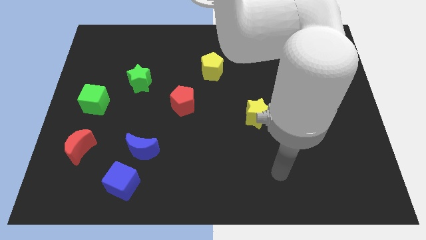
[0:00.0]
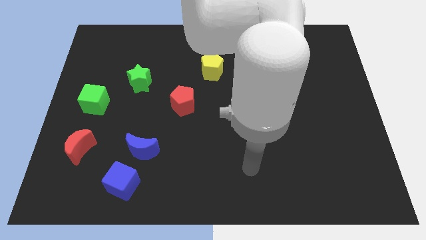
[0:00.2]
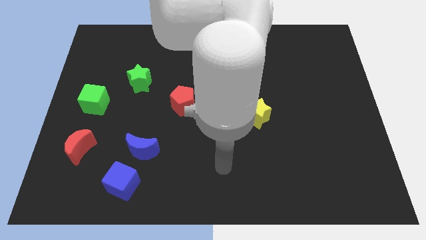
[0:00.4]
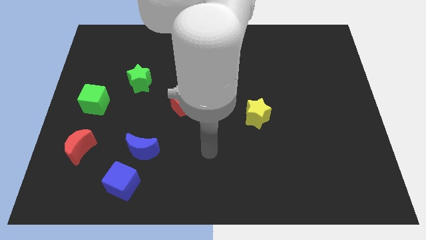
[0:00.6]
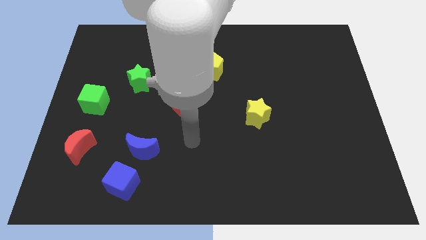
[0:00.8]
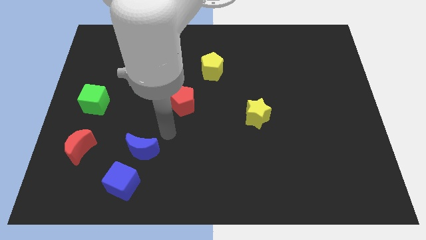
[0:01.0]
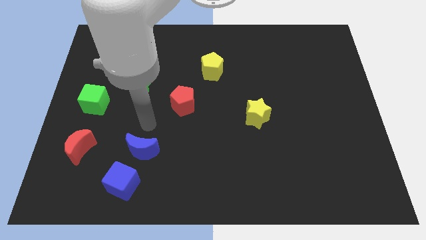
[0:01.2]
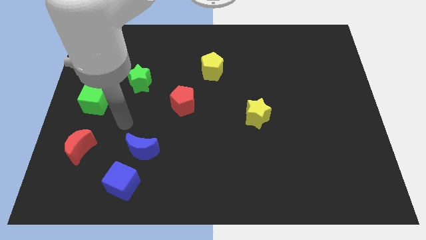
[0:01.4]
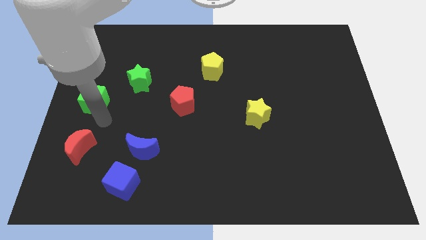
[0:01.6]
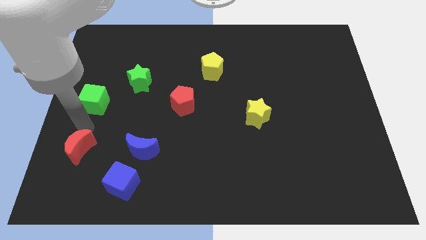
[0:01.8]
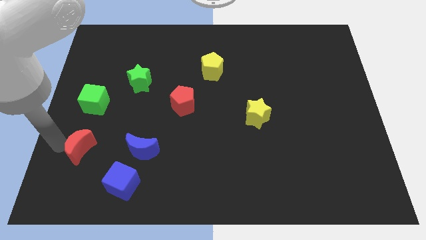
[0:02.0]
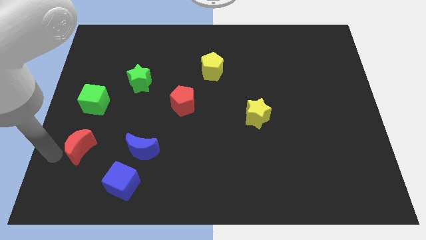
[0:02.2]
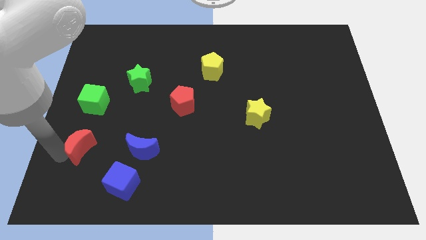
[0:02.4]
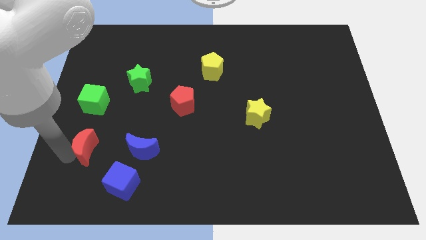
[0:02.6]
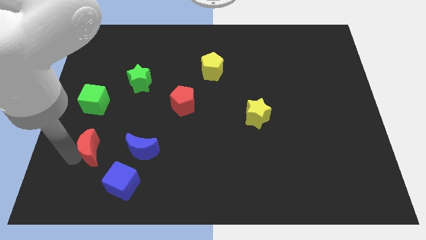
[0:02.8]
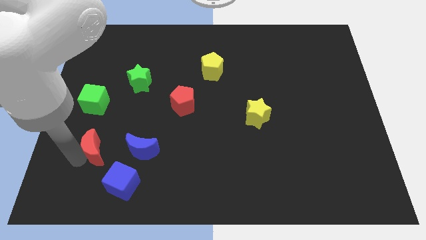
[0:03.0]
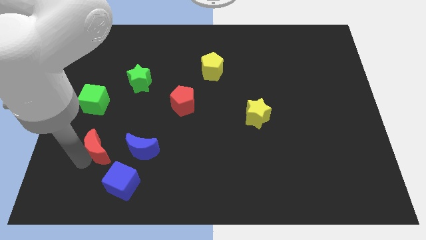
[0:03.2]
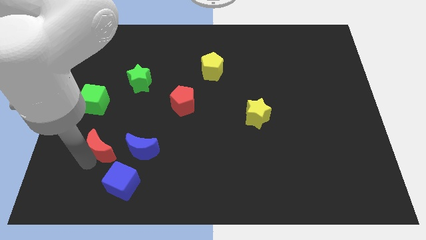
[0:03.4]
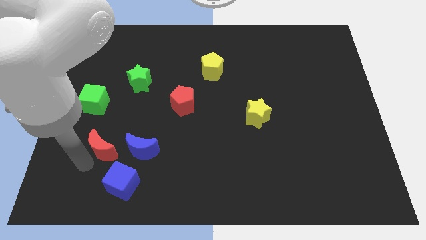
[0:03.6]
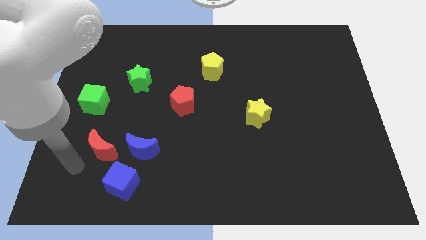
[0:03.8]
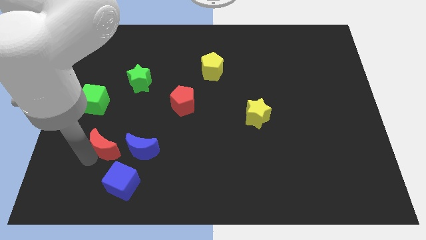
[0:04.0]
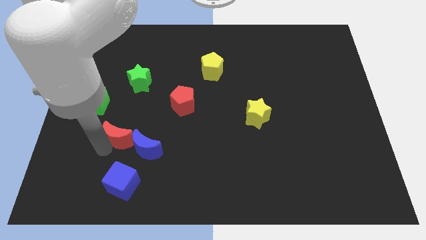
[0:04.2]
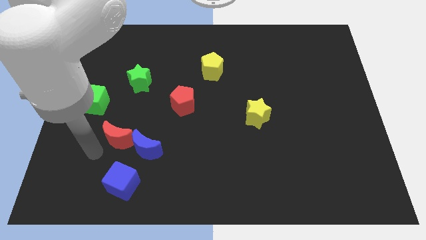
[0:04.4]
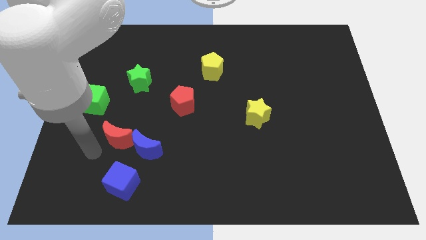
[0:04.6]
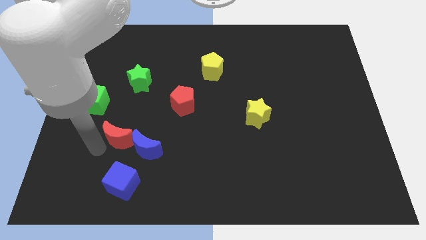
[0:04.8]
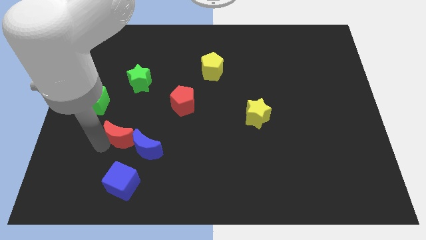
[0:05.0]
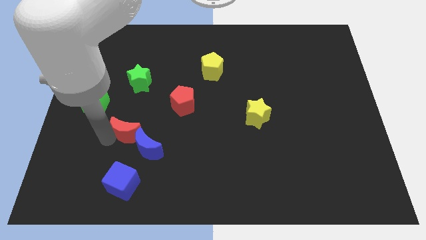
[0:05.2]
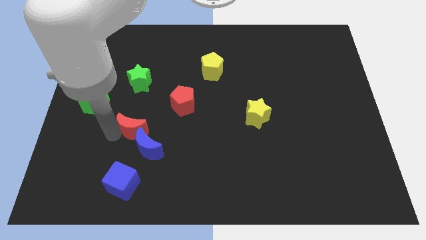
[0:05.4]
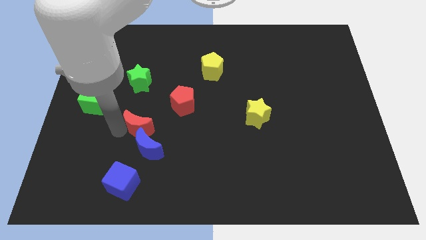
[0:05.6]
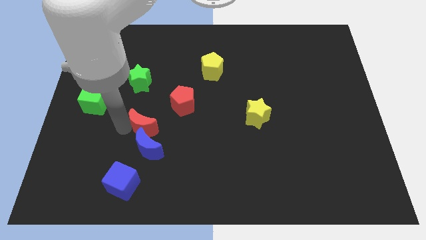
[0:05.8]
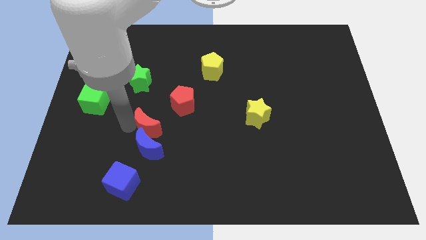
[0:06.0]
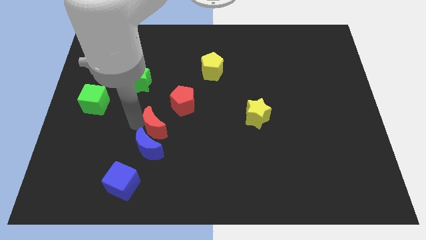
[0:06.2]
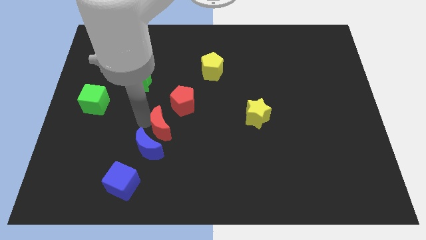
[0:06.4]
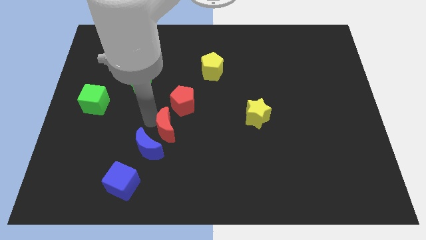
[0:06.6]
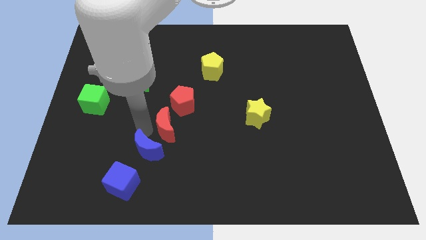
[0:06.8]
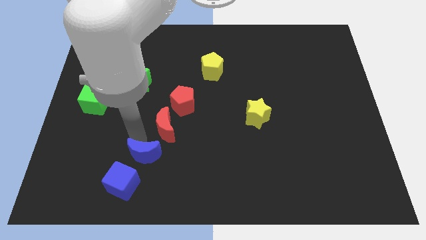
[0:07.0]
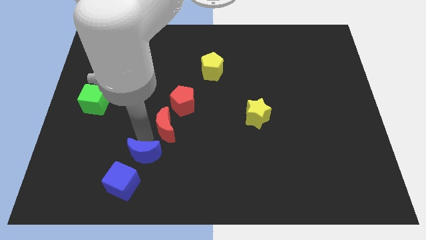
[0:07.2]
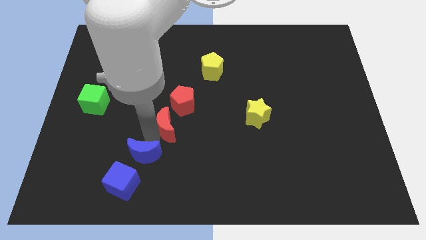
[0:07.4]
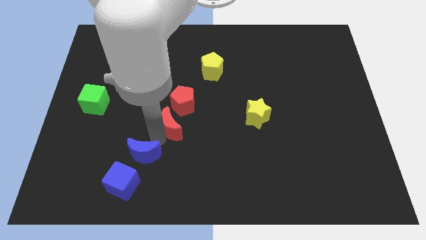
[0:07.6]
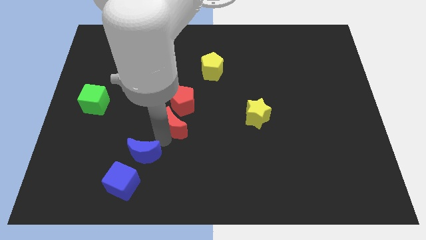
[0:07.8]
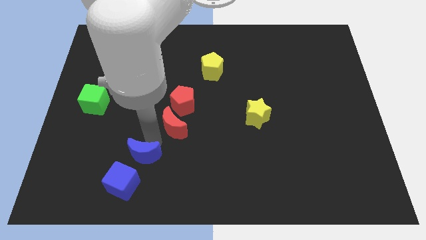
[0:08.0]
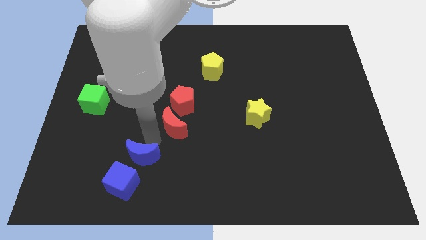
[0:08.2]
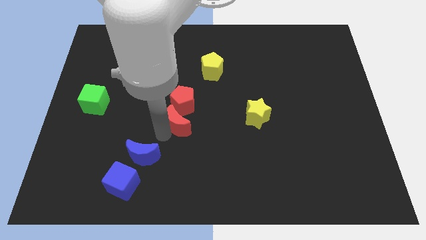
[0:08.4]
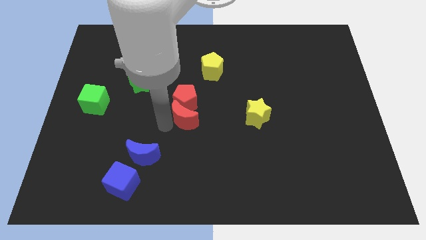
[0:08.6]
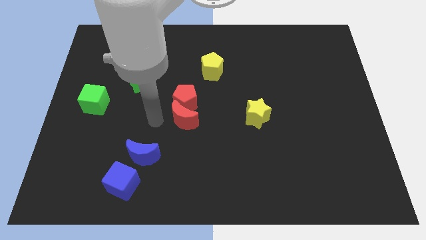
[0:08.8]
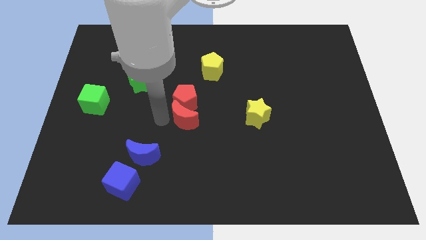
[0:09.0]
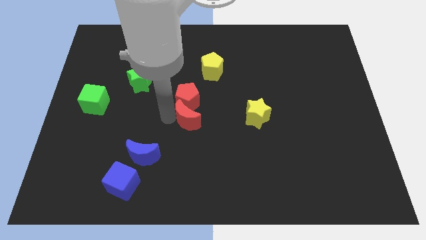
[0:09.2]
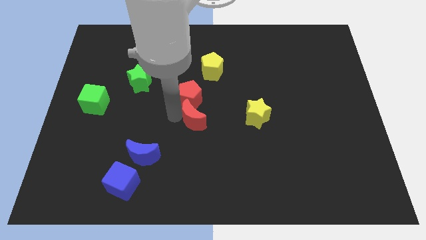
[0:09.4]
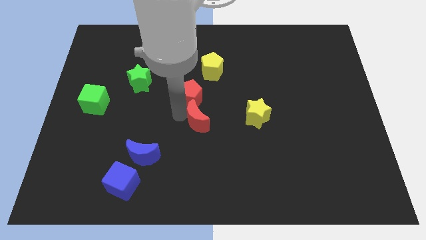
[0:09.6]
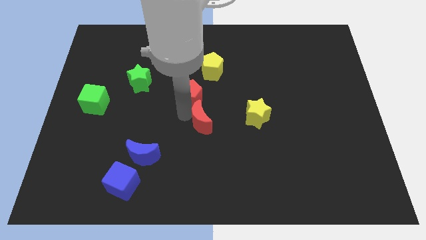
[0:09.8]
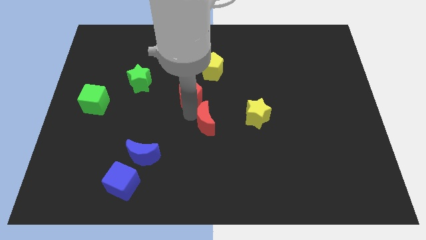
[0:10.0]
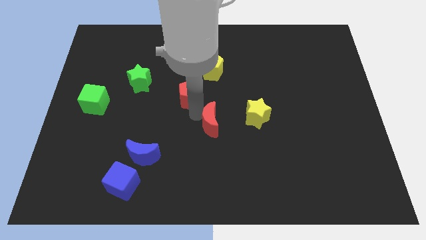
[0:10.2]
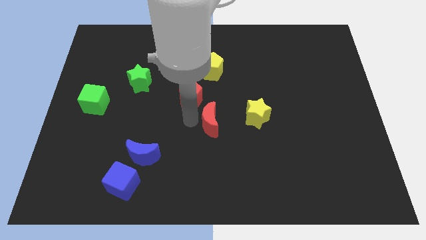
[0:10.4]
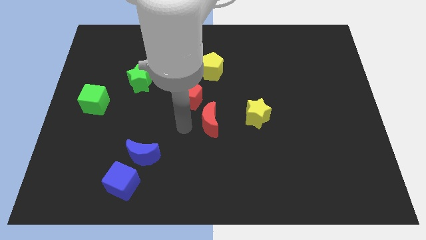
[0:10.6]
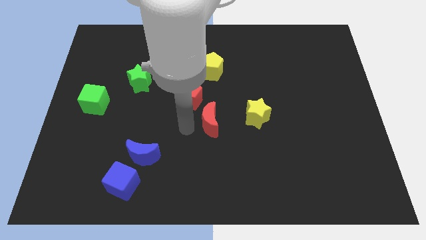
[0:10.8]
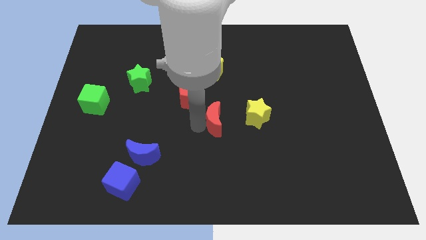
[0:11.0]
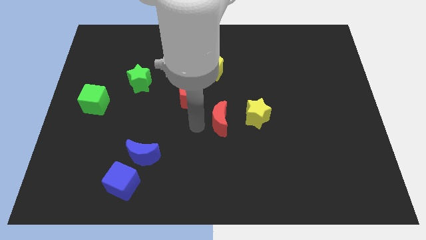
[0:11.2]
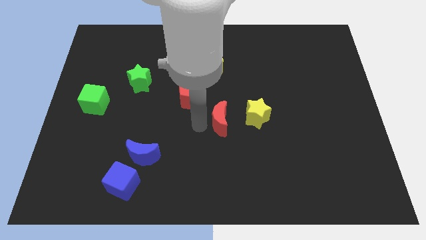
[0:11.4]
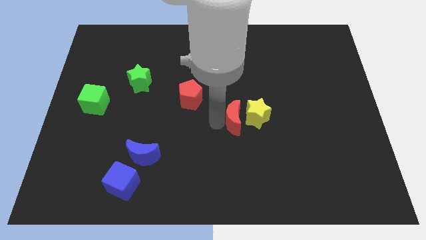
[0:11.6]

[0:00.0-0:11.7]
push the red moon to the yellow star

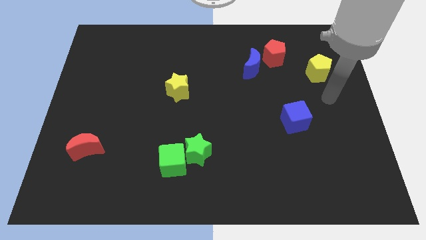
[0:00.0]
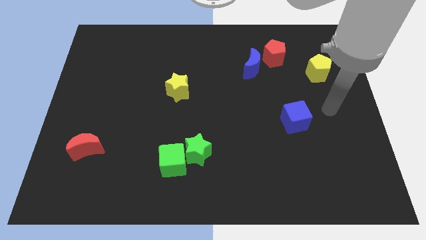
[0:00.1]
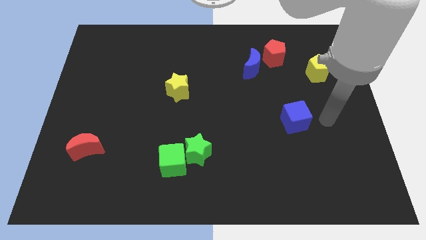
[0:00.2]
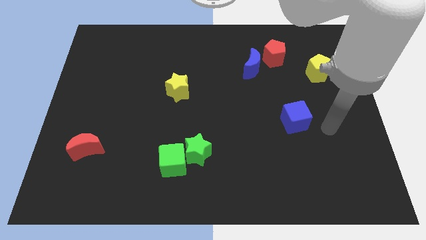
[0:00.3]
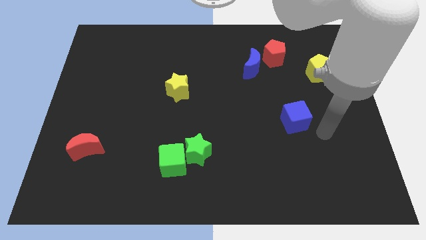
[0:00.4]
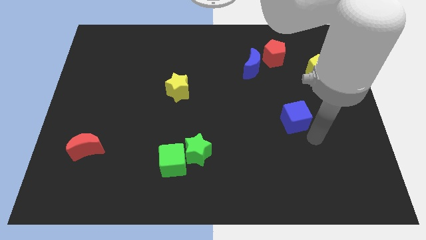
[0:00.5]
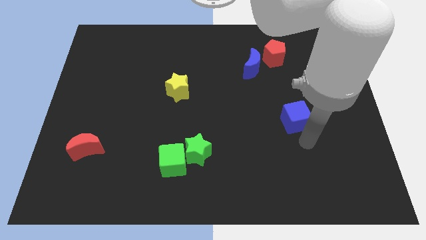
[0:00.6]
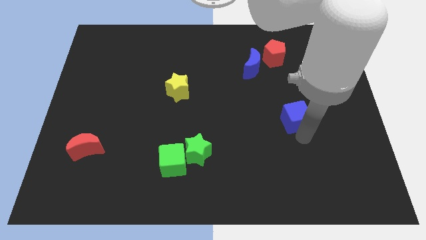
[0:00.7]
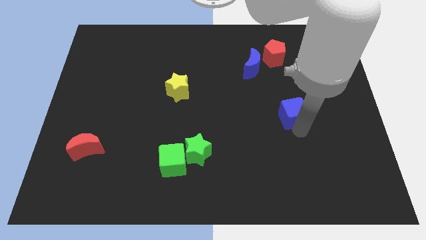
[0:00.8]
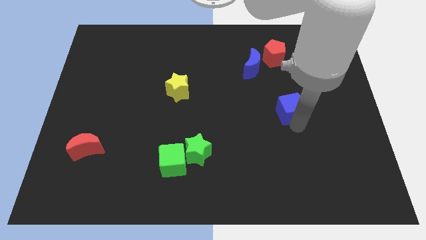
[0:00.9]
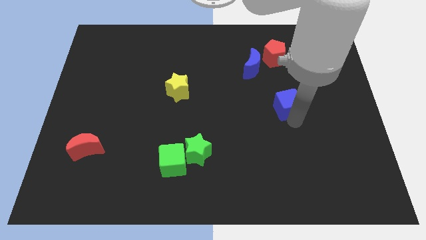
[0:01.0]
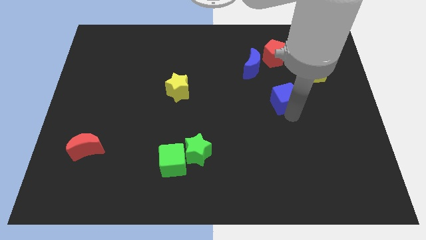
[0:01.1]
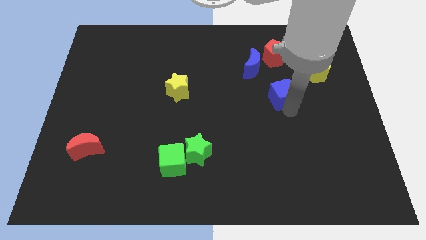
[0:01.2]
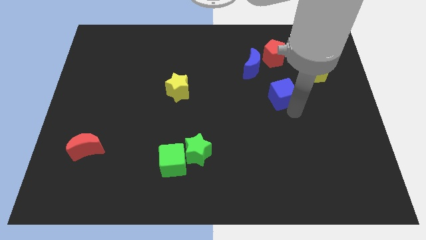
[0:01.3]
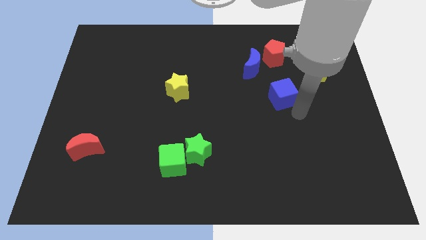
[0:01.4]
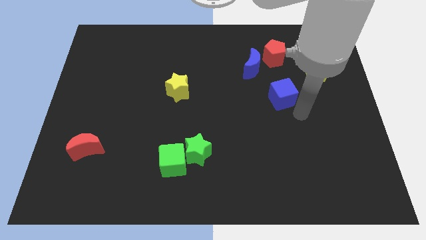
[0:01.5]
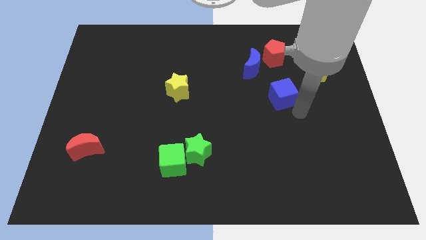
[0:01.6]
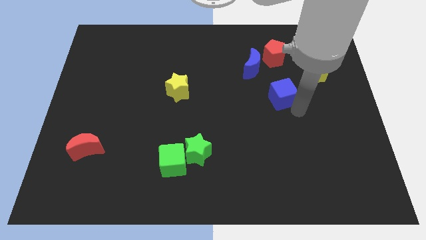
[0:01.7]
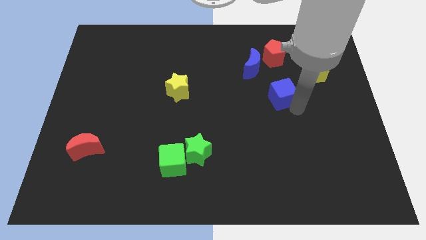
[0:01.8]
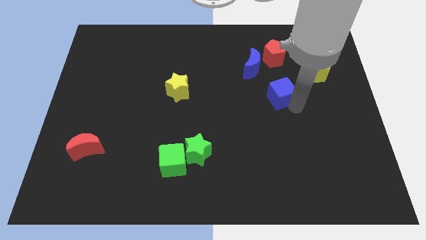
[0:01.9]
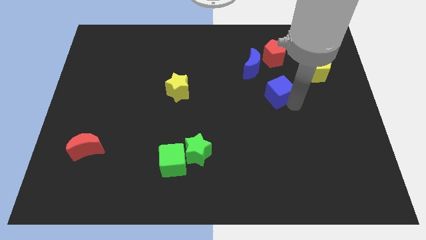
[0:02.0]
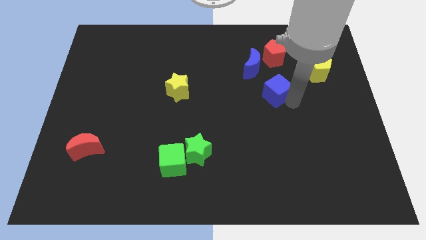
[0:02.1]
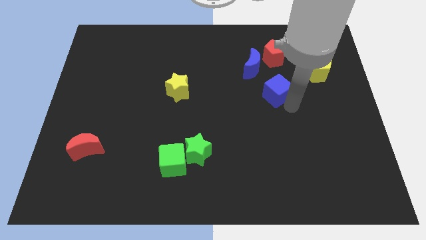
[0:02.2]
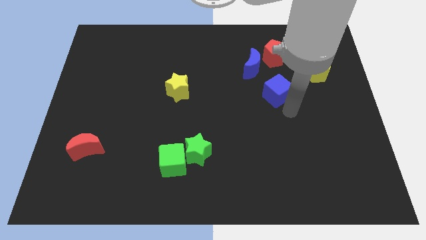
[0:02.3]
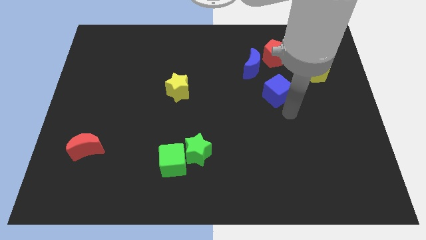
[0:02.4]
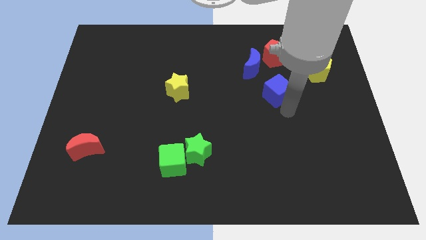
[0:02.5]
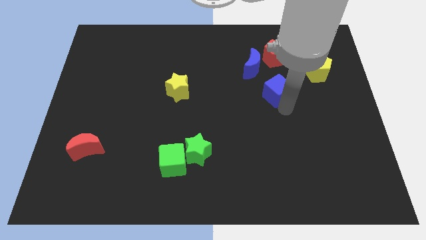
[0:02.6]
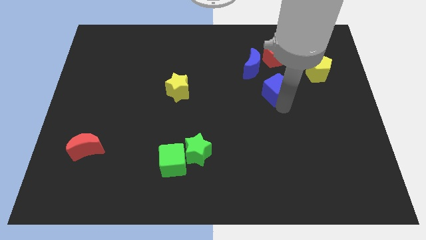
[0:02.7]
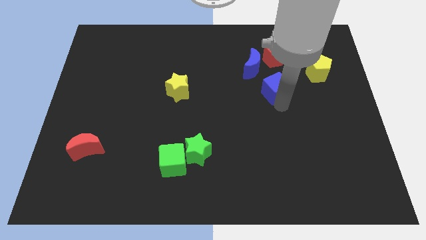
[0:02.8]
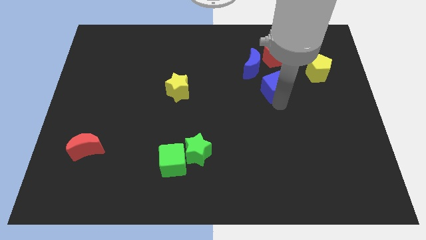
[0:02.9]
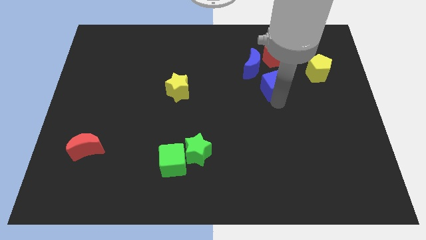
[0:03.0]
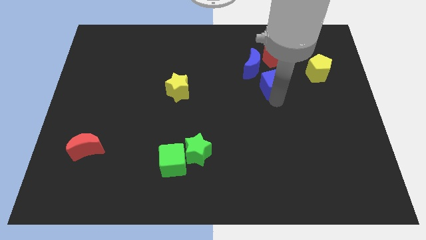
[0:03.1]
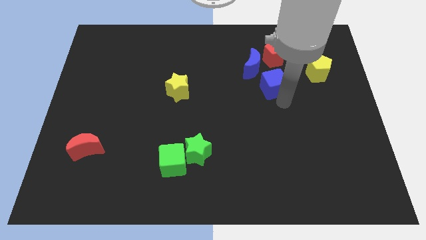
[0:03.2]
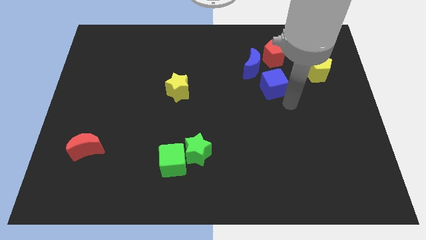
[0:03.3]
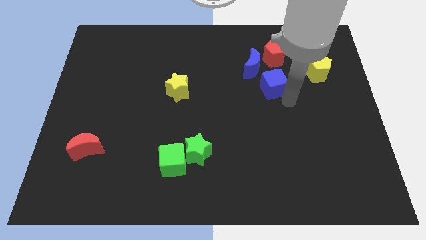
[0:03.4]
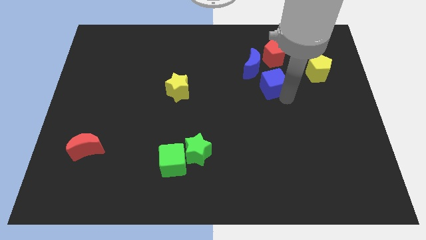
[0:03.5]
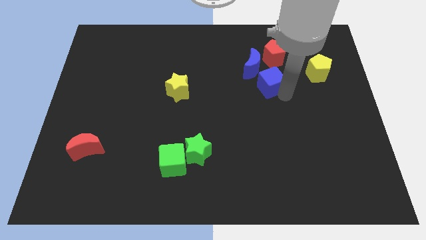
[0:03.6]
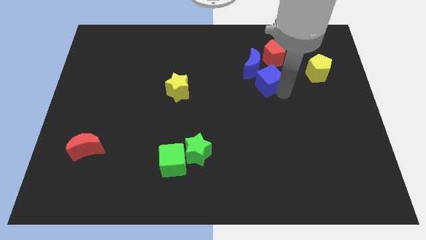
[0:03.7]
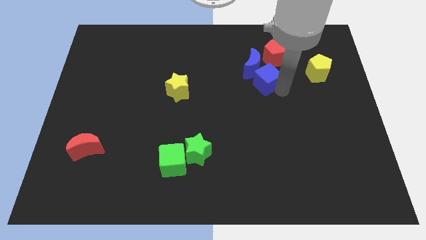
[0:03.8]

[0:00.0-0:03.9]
move the blue cube towards the blue moon
